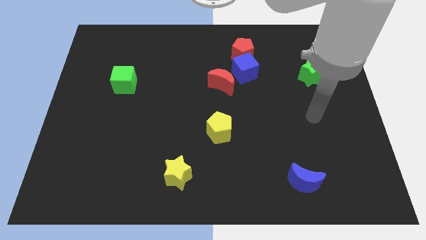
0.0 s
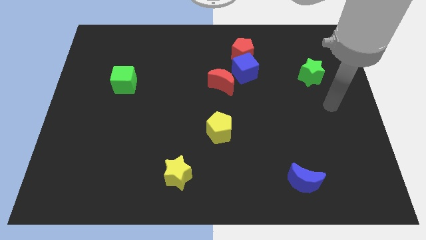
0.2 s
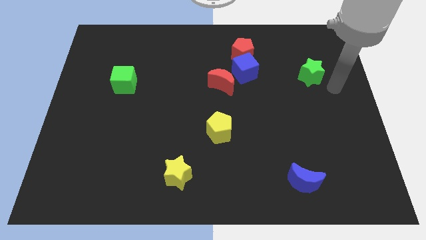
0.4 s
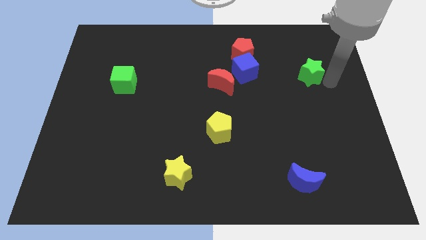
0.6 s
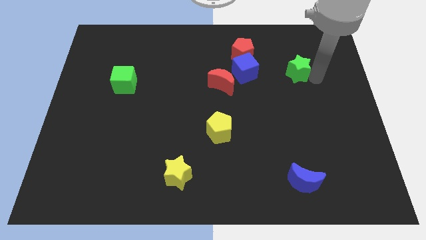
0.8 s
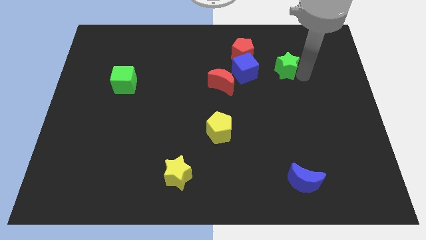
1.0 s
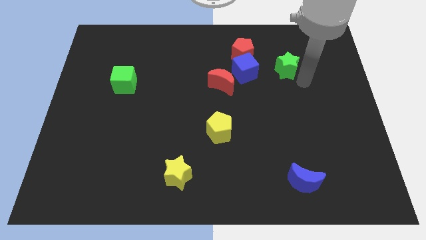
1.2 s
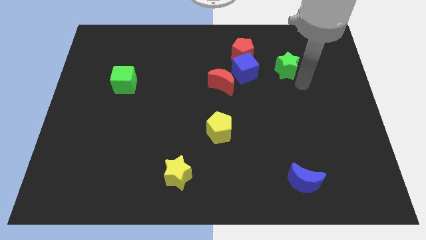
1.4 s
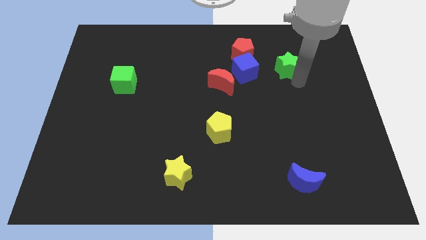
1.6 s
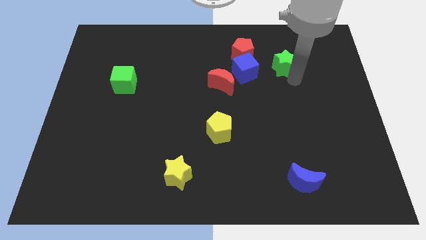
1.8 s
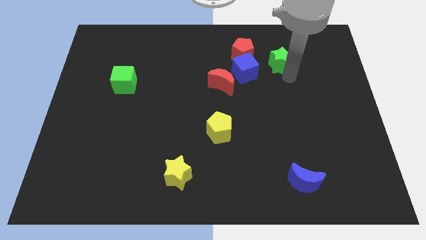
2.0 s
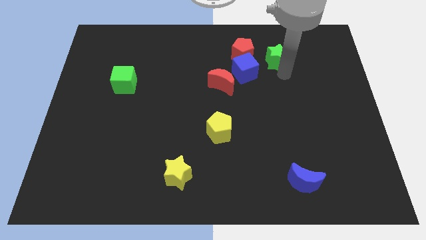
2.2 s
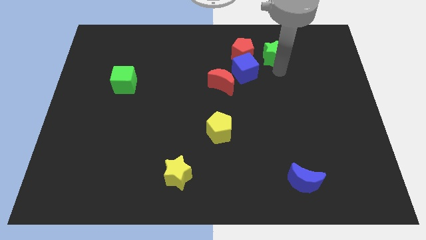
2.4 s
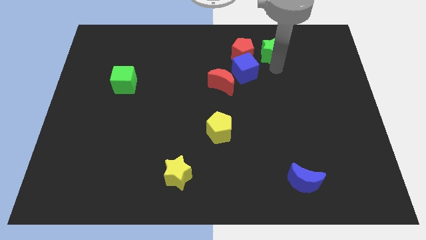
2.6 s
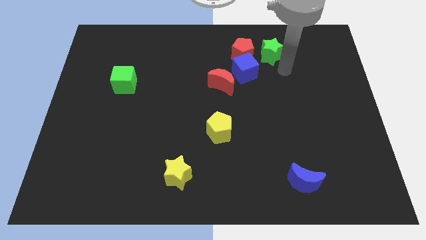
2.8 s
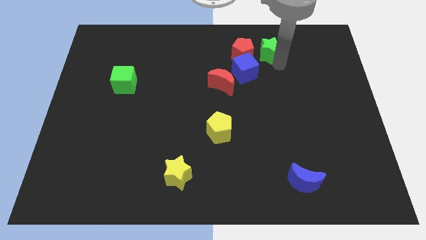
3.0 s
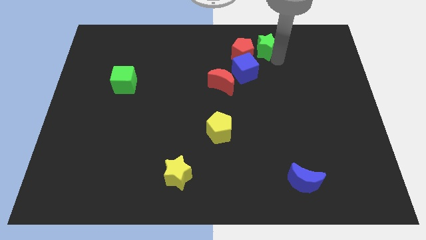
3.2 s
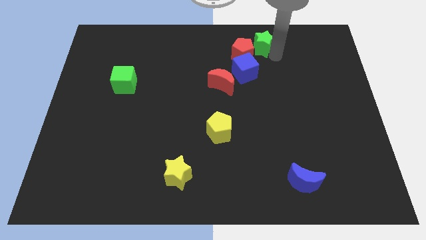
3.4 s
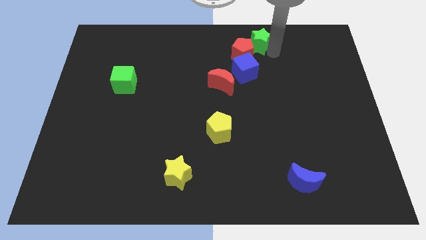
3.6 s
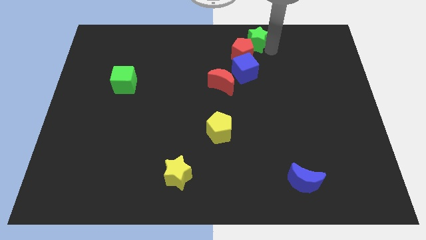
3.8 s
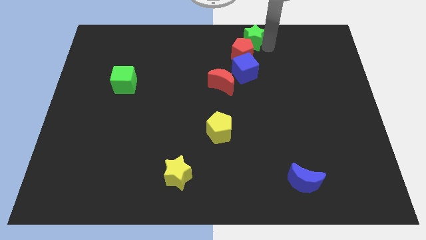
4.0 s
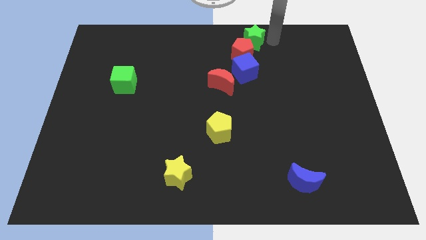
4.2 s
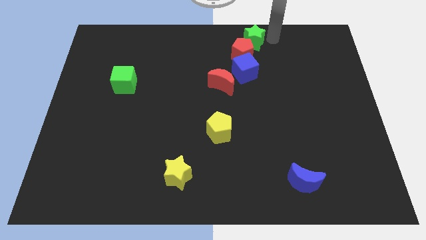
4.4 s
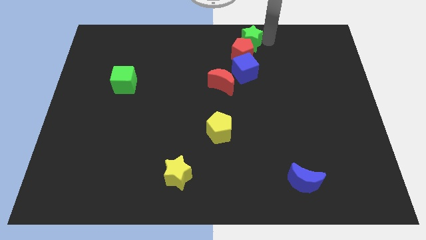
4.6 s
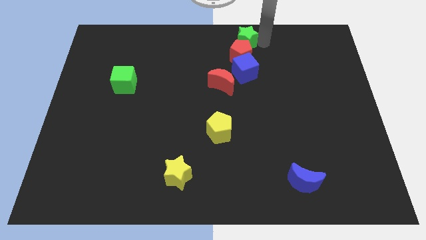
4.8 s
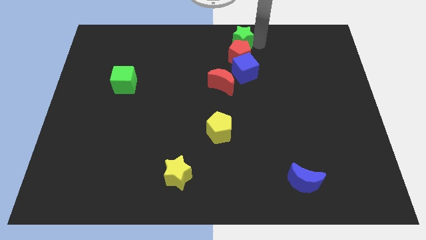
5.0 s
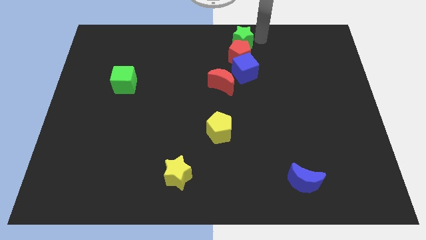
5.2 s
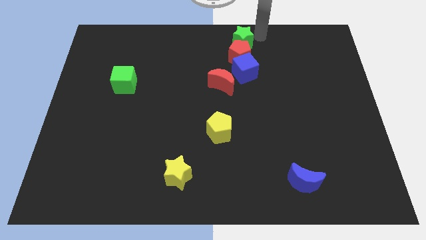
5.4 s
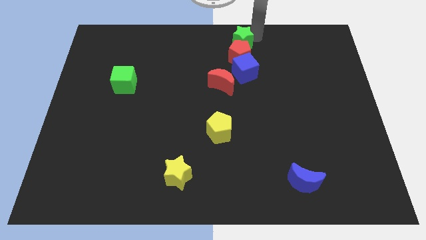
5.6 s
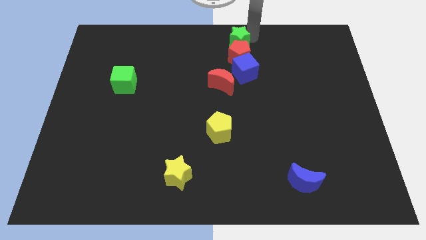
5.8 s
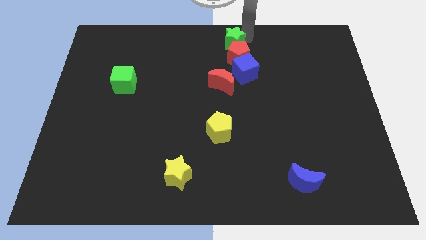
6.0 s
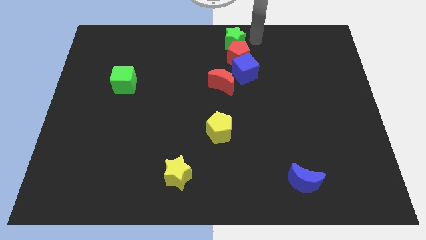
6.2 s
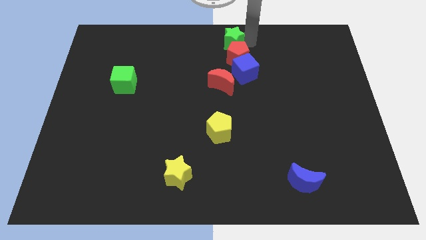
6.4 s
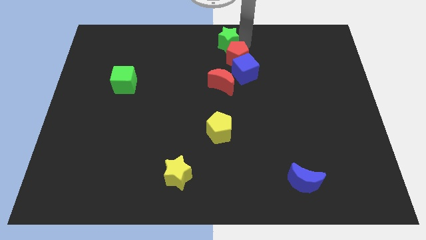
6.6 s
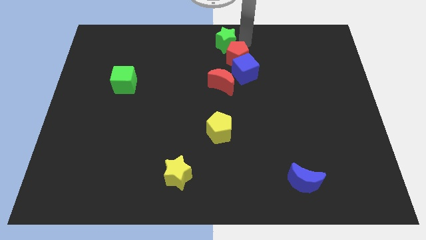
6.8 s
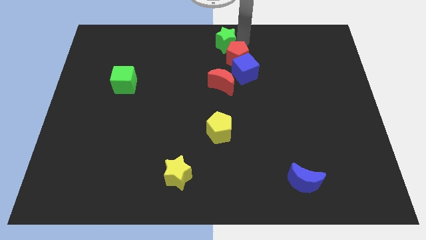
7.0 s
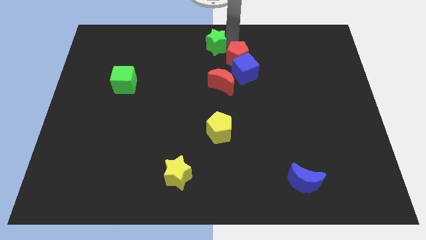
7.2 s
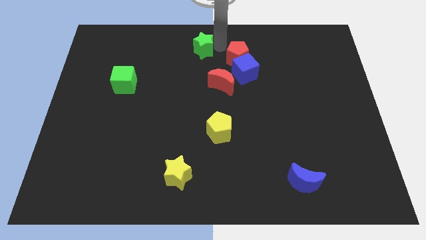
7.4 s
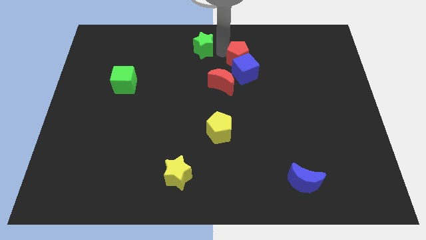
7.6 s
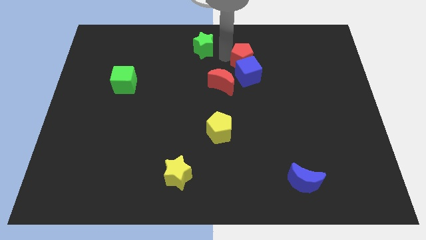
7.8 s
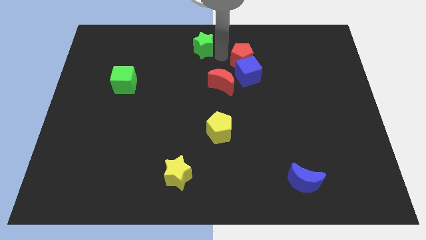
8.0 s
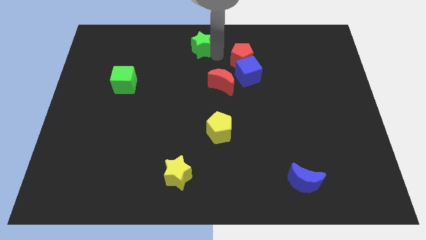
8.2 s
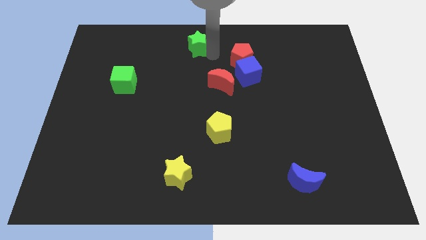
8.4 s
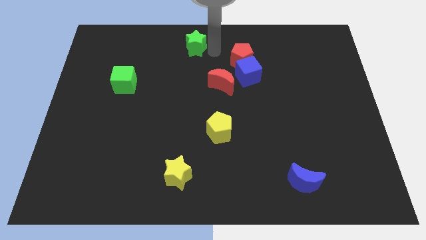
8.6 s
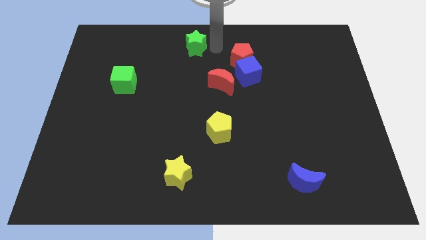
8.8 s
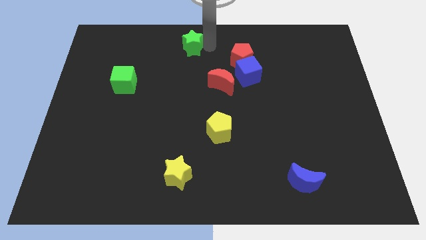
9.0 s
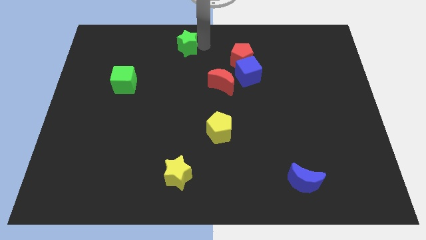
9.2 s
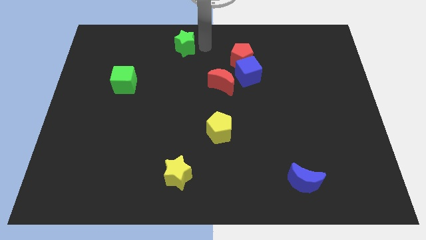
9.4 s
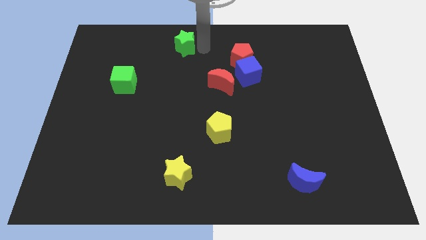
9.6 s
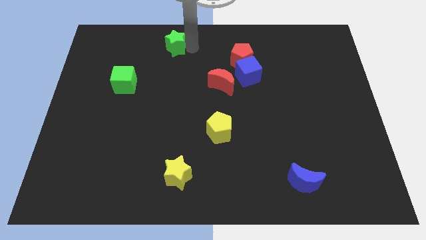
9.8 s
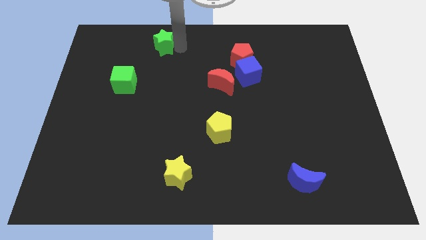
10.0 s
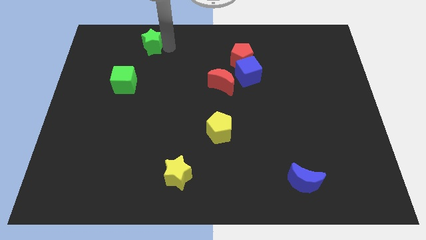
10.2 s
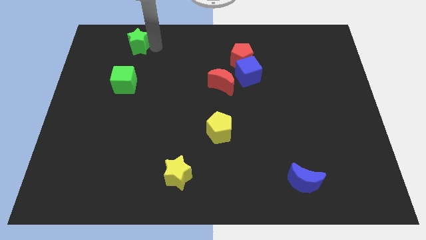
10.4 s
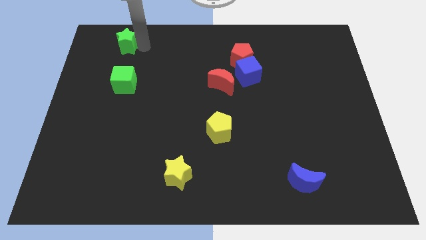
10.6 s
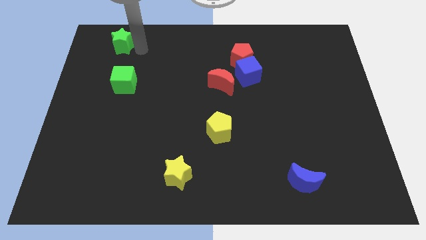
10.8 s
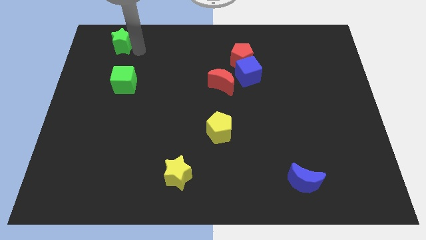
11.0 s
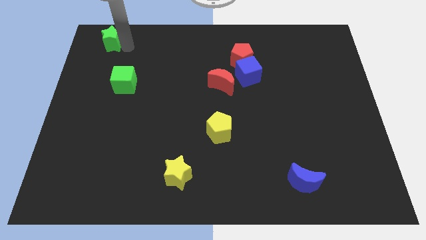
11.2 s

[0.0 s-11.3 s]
put the green star to the upper left corner

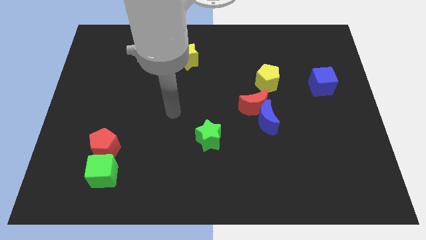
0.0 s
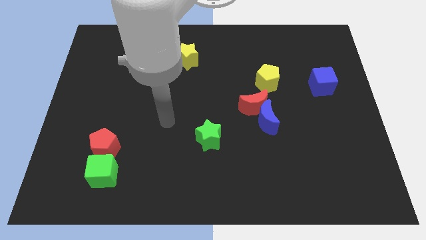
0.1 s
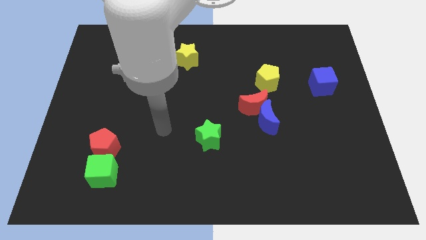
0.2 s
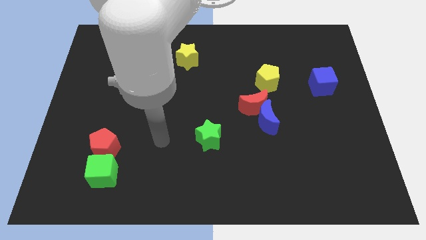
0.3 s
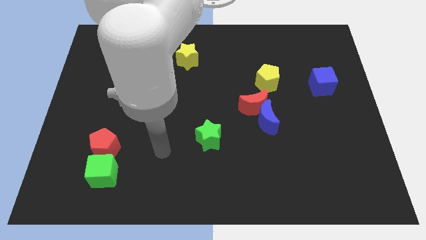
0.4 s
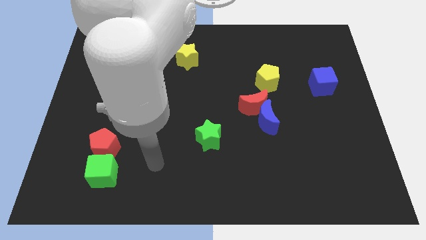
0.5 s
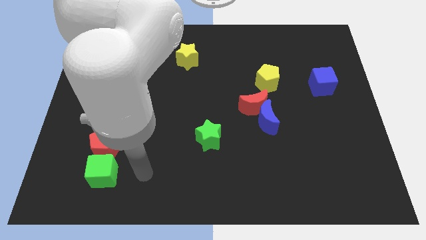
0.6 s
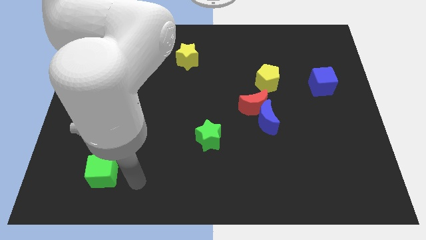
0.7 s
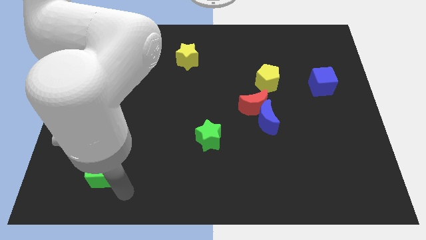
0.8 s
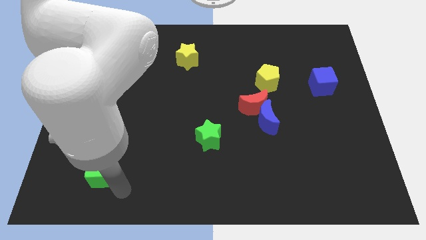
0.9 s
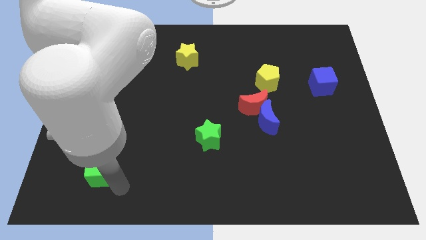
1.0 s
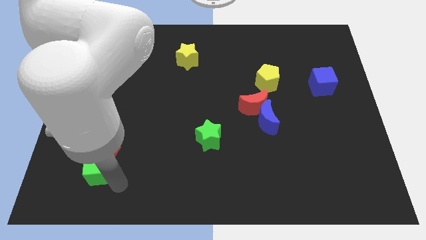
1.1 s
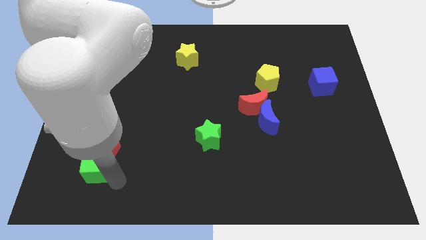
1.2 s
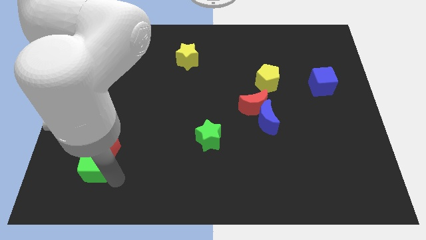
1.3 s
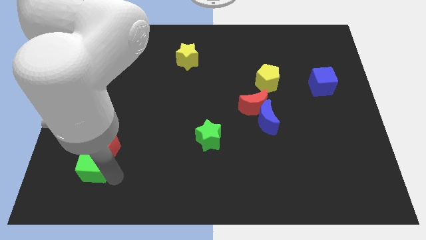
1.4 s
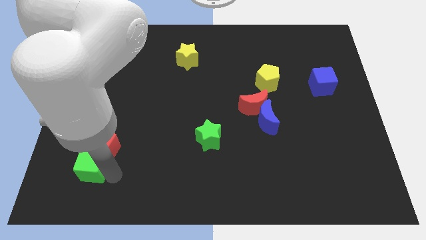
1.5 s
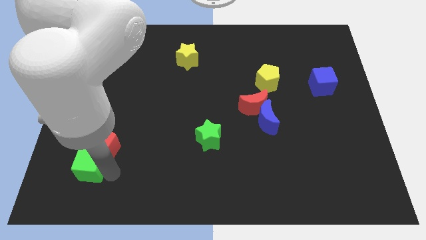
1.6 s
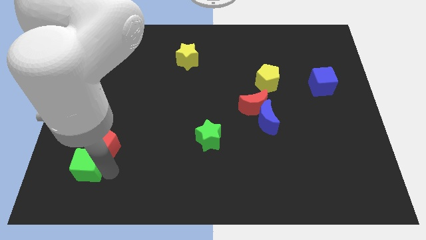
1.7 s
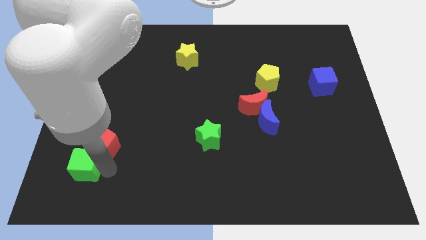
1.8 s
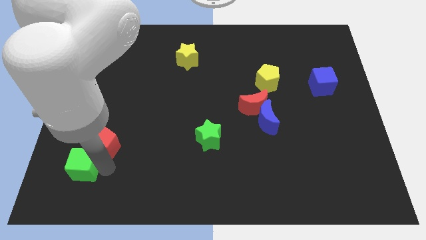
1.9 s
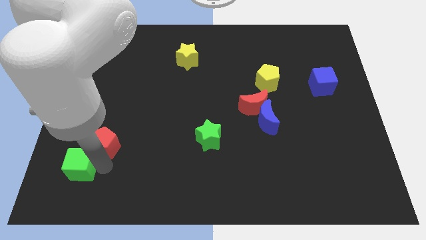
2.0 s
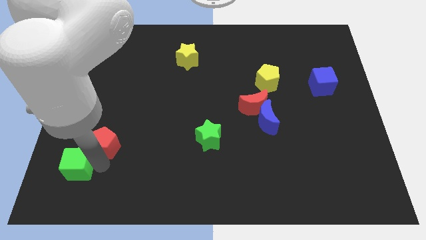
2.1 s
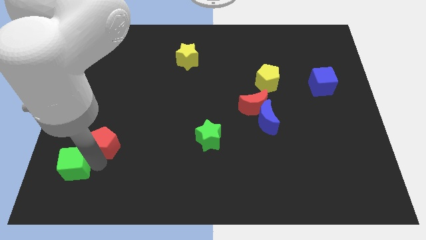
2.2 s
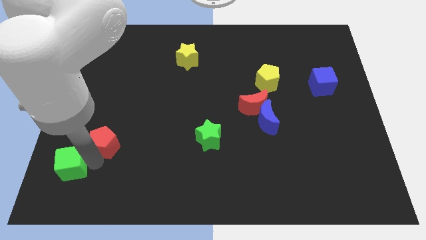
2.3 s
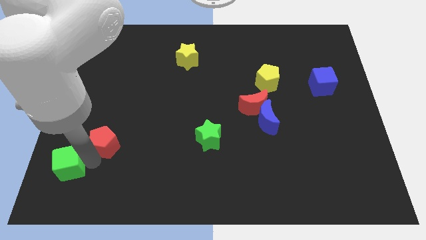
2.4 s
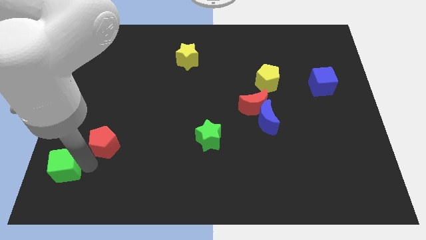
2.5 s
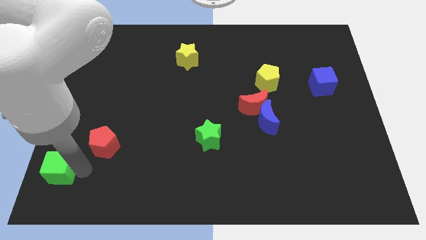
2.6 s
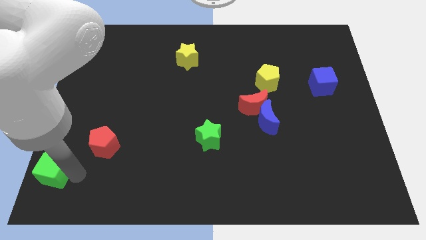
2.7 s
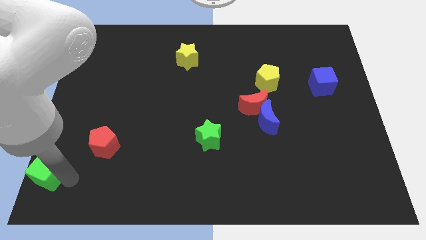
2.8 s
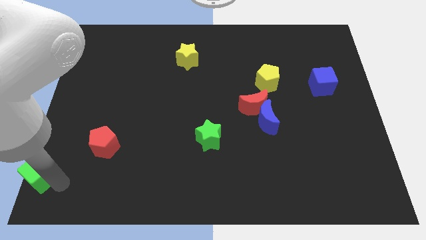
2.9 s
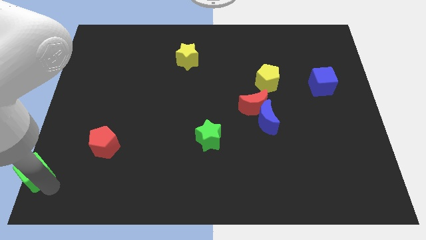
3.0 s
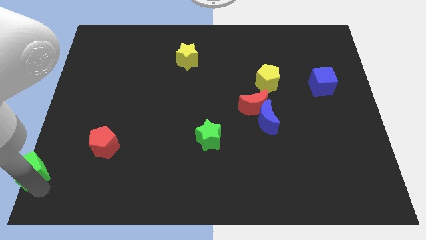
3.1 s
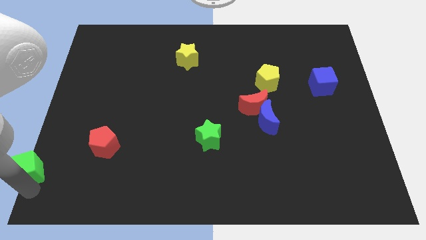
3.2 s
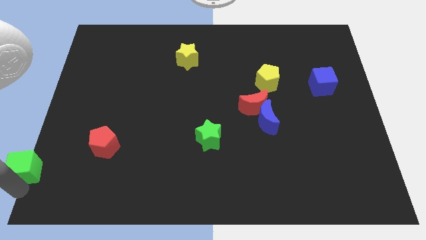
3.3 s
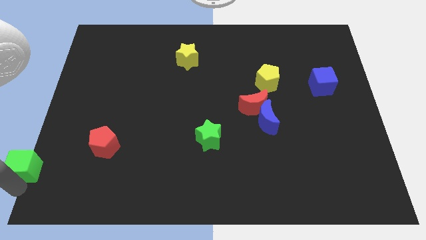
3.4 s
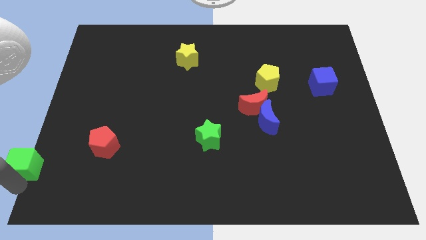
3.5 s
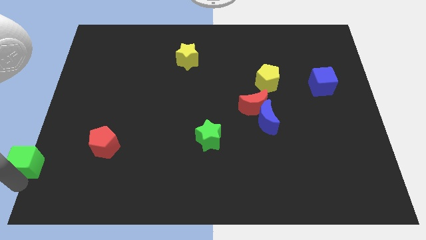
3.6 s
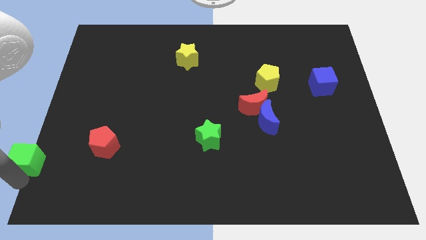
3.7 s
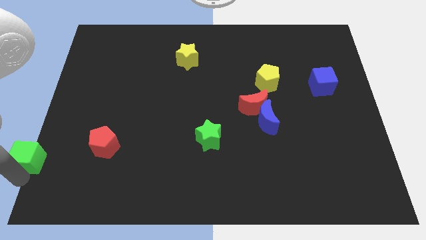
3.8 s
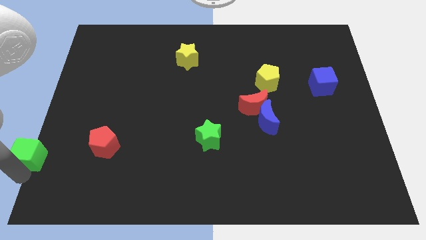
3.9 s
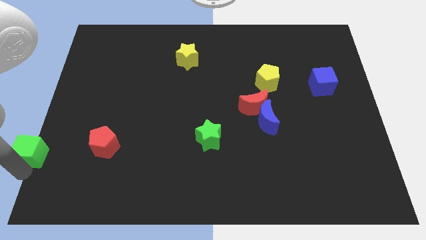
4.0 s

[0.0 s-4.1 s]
move the green cube to the left side
